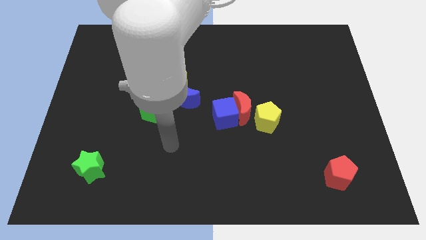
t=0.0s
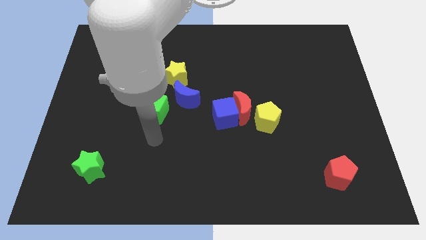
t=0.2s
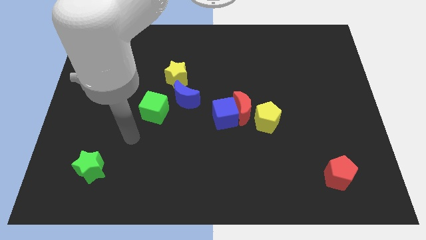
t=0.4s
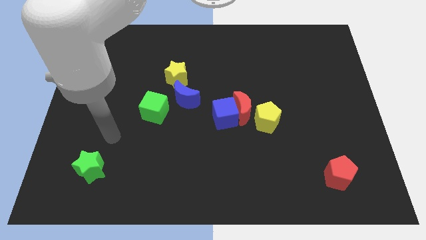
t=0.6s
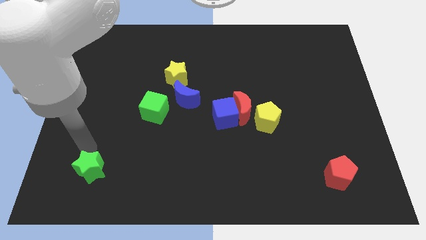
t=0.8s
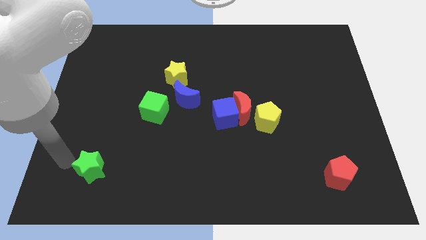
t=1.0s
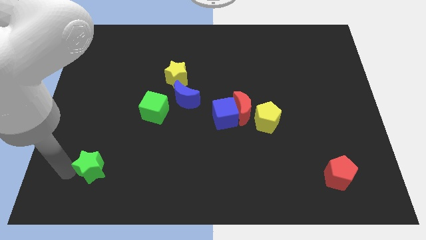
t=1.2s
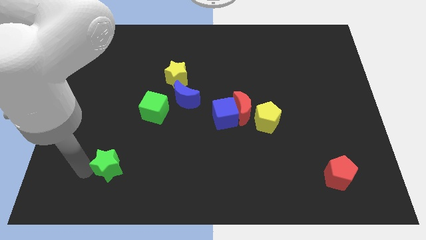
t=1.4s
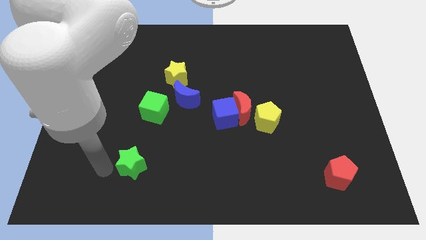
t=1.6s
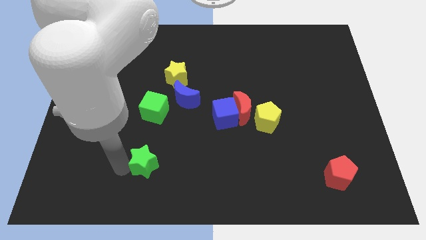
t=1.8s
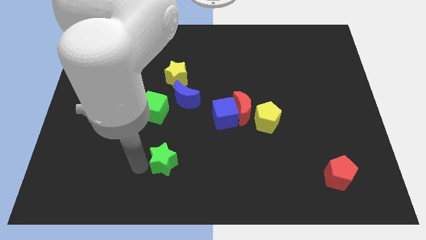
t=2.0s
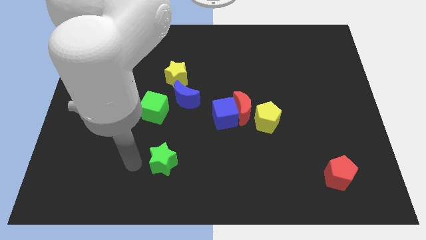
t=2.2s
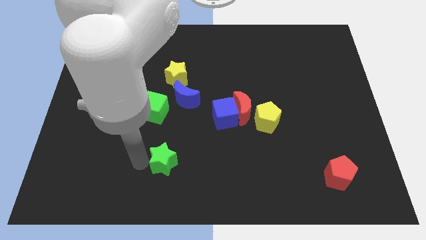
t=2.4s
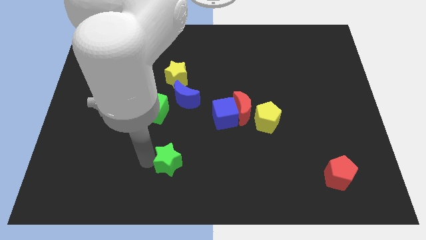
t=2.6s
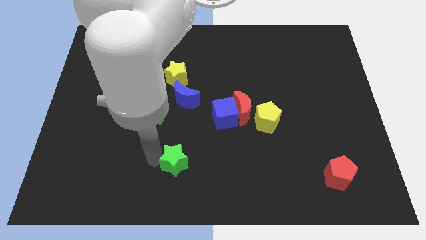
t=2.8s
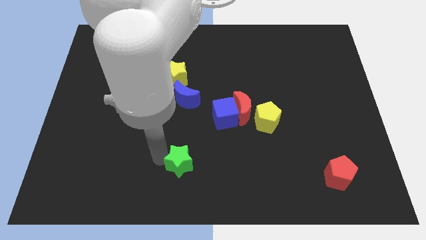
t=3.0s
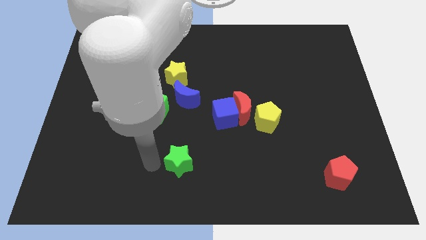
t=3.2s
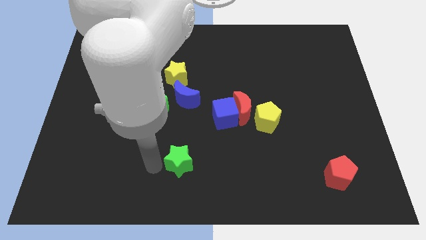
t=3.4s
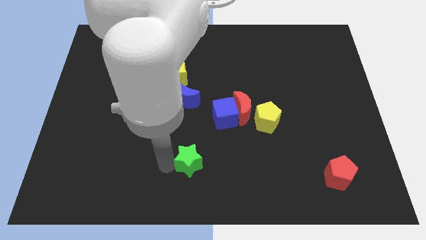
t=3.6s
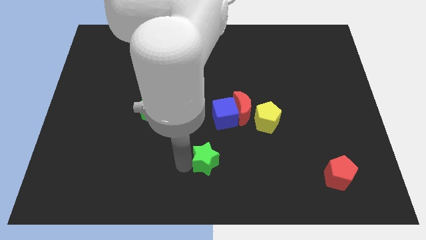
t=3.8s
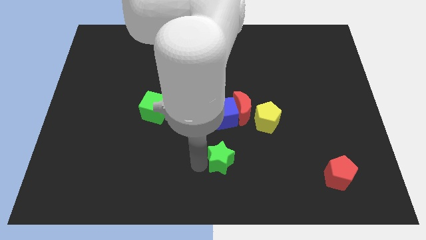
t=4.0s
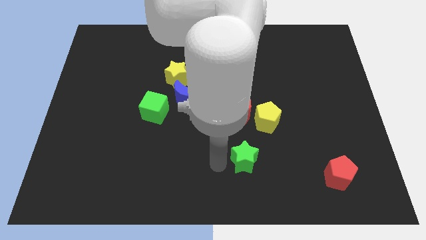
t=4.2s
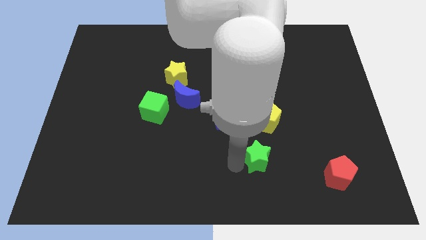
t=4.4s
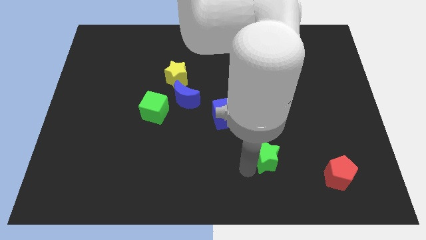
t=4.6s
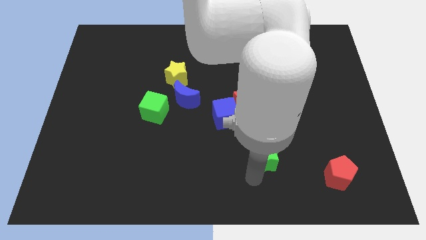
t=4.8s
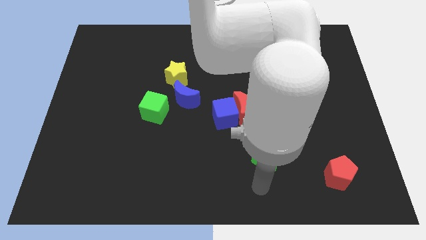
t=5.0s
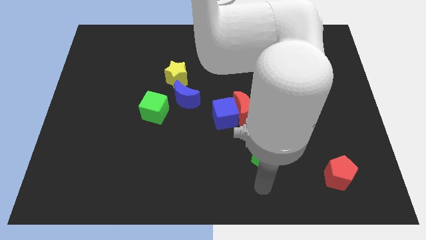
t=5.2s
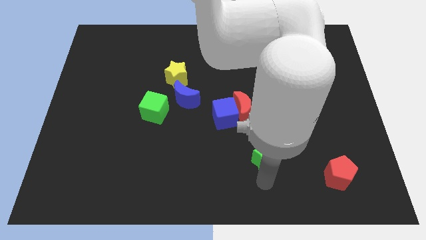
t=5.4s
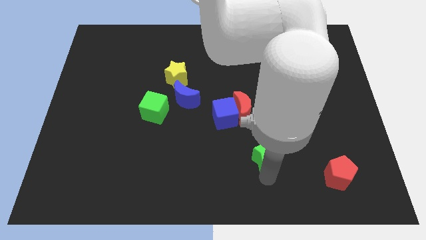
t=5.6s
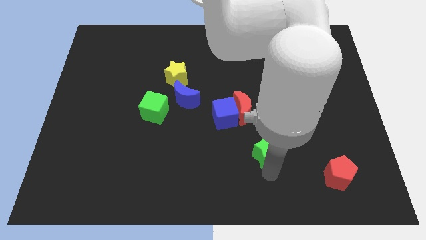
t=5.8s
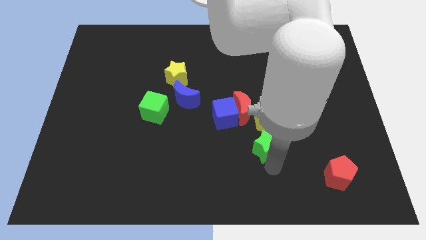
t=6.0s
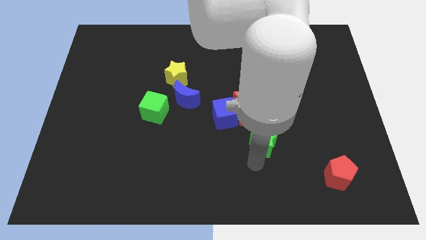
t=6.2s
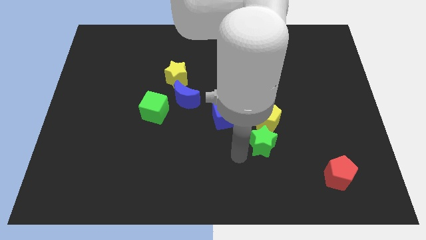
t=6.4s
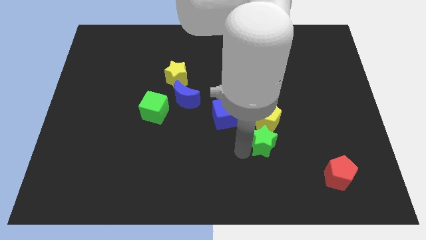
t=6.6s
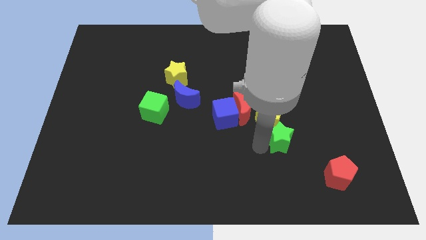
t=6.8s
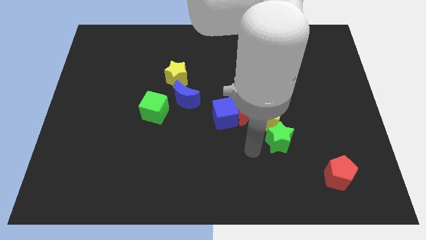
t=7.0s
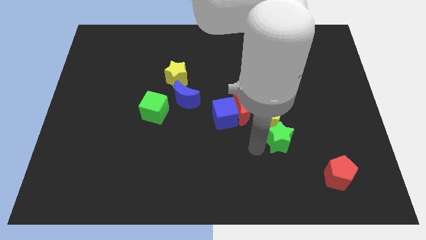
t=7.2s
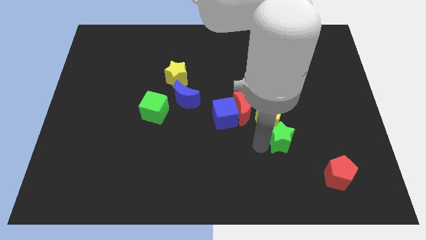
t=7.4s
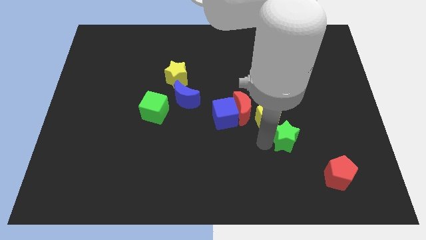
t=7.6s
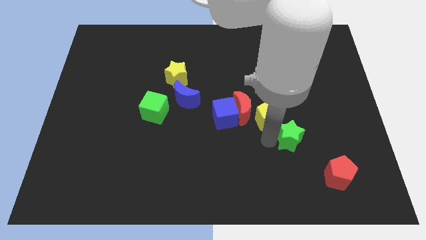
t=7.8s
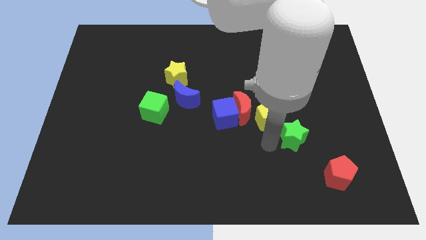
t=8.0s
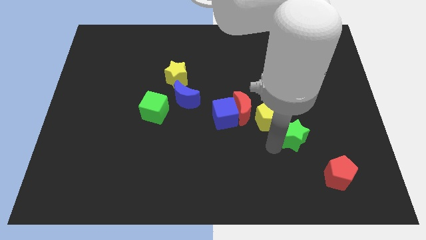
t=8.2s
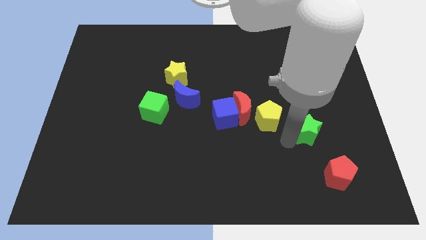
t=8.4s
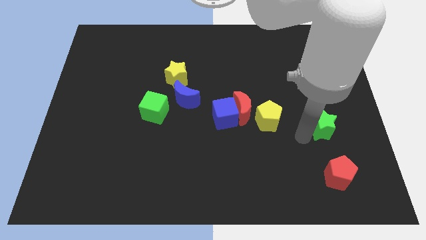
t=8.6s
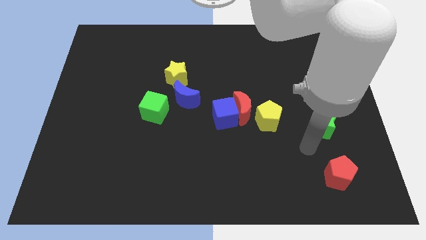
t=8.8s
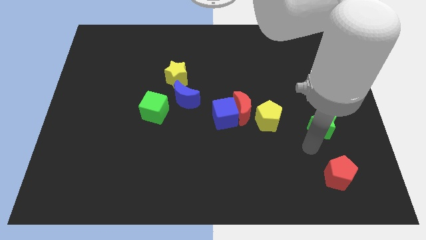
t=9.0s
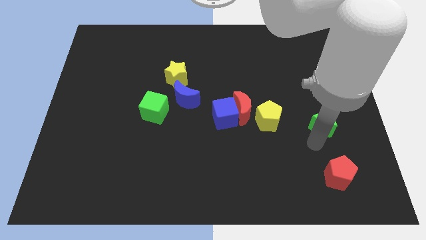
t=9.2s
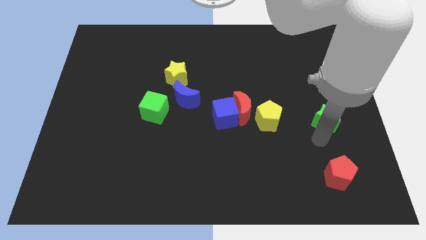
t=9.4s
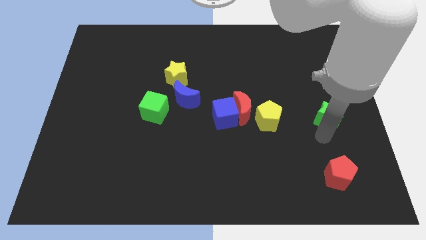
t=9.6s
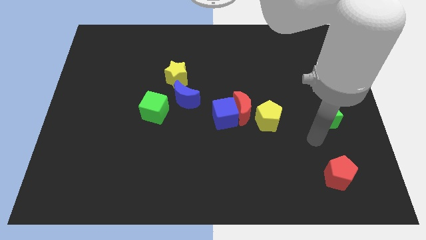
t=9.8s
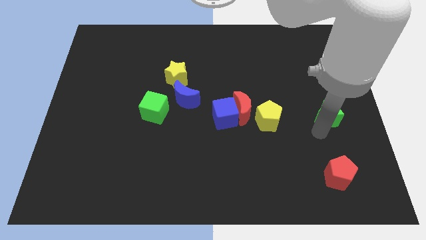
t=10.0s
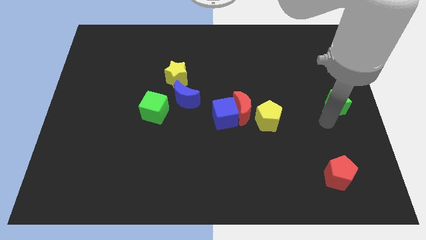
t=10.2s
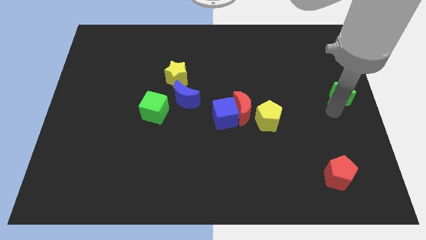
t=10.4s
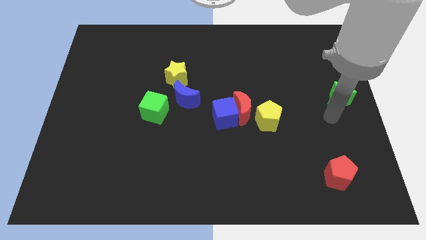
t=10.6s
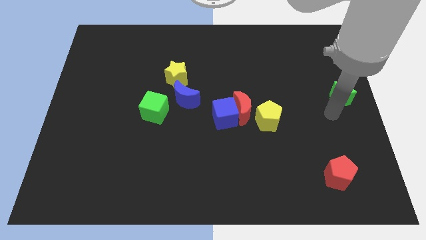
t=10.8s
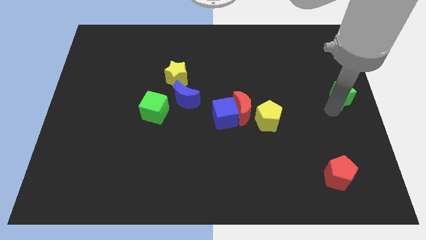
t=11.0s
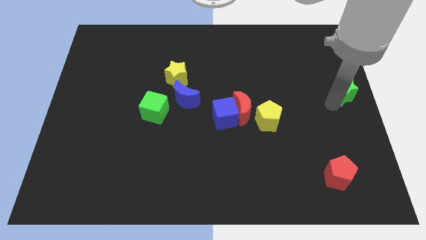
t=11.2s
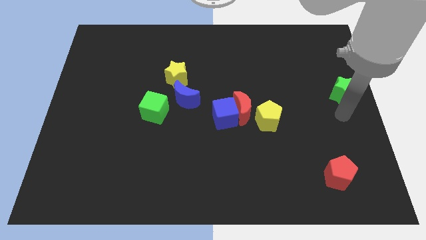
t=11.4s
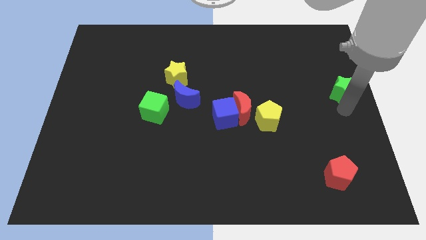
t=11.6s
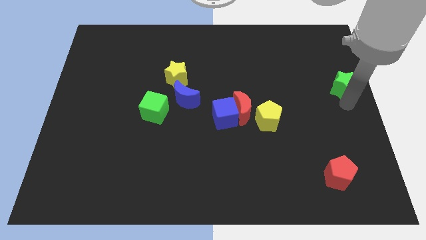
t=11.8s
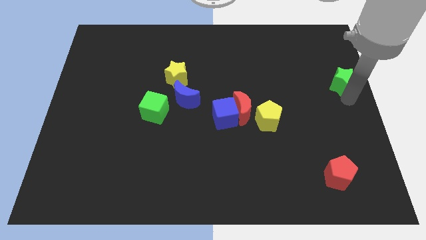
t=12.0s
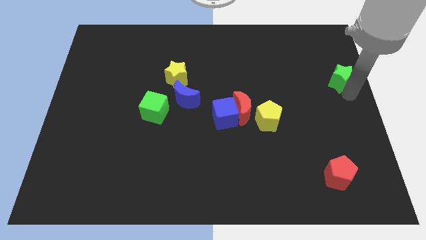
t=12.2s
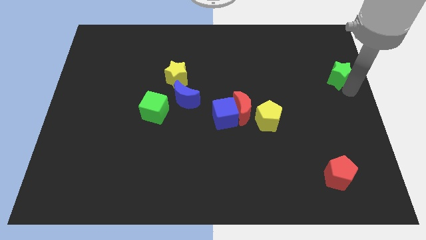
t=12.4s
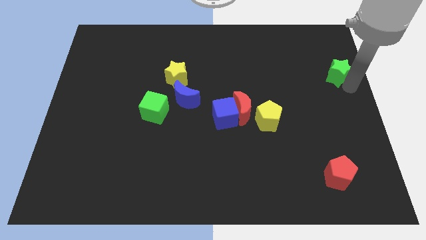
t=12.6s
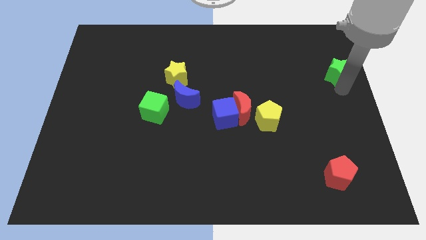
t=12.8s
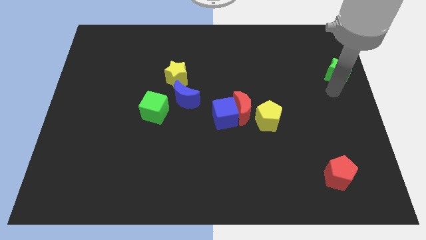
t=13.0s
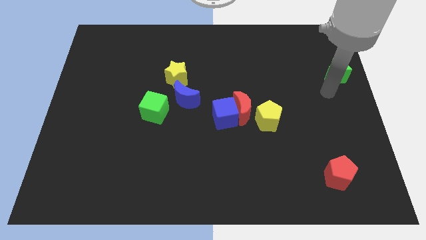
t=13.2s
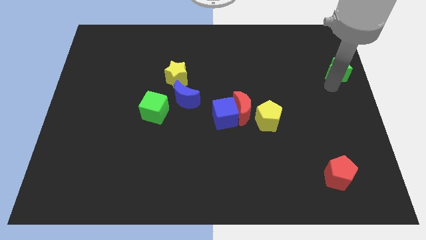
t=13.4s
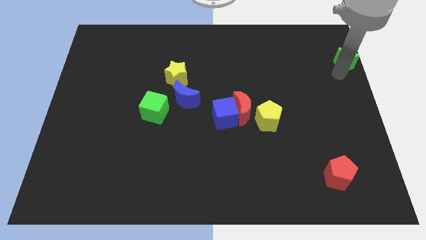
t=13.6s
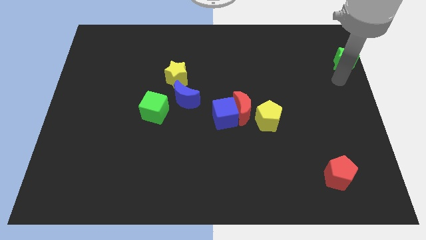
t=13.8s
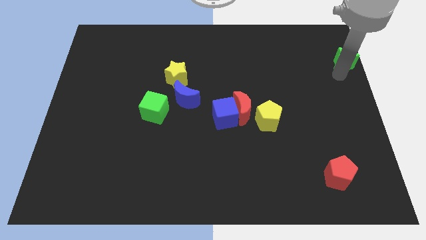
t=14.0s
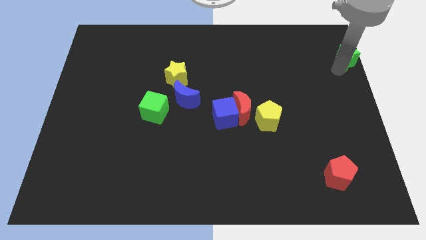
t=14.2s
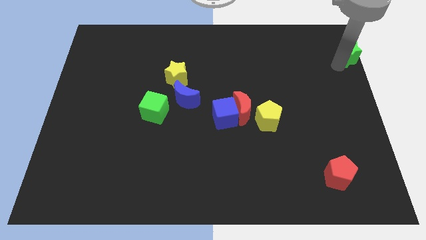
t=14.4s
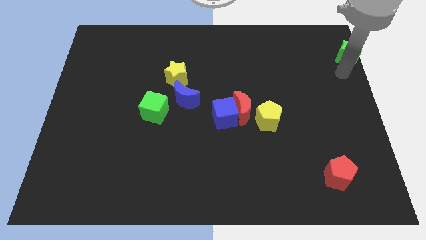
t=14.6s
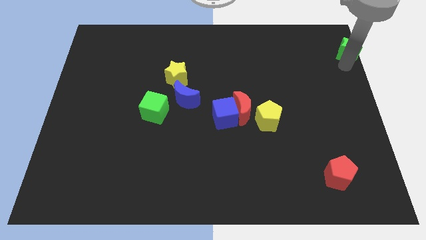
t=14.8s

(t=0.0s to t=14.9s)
slide the green star to the top right of the board
